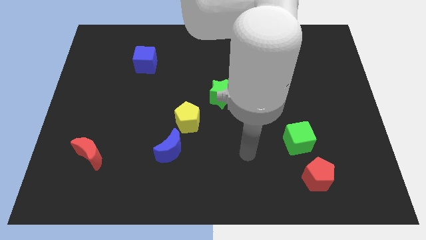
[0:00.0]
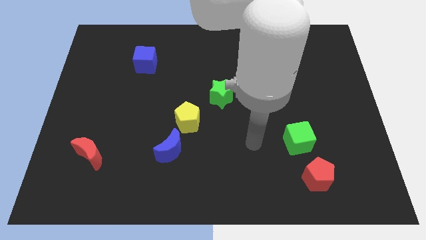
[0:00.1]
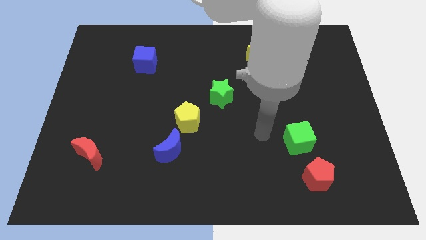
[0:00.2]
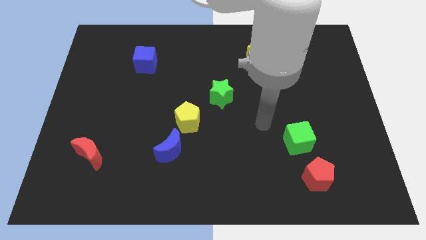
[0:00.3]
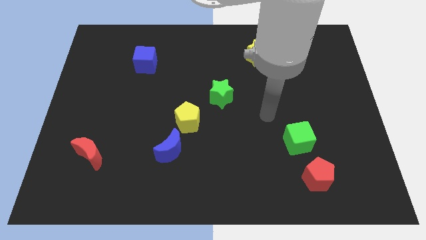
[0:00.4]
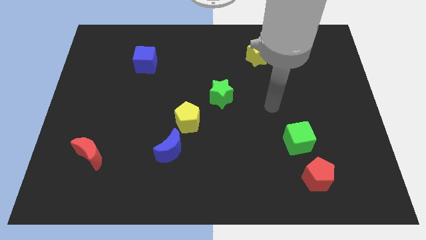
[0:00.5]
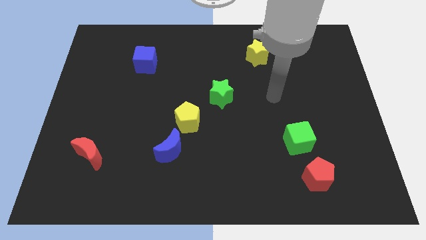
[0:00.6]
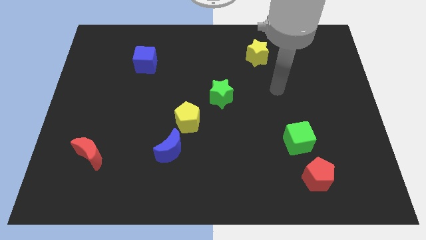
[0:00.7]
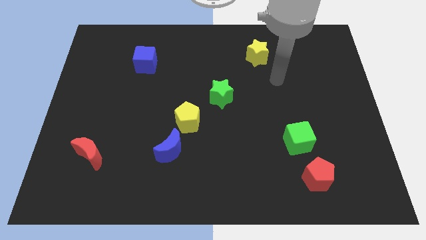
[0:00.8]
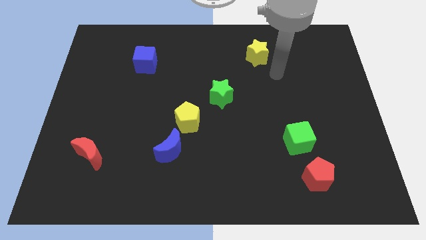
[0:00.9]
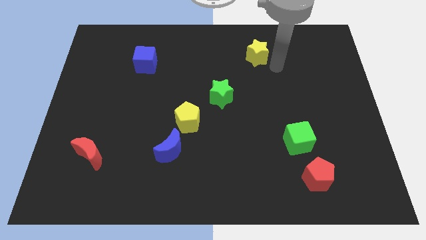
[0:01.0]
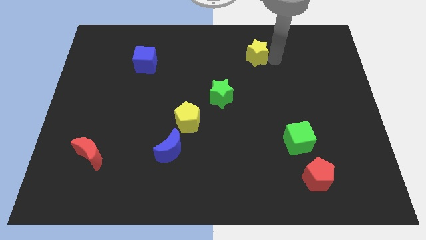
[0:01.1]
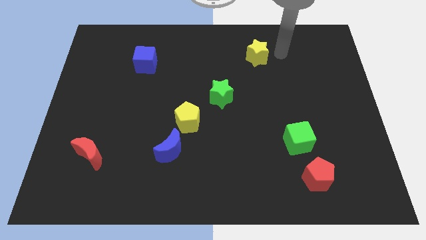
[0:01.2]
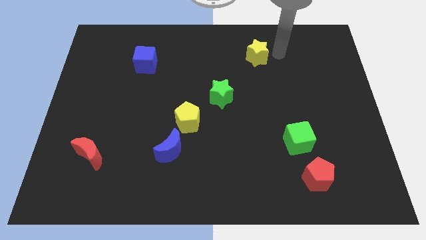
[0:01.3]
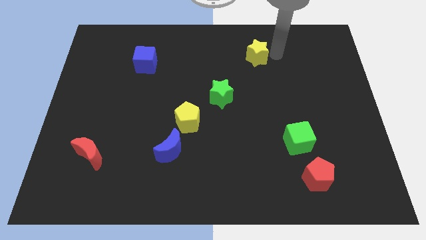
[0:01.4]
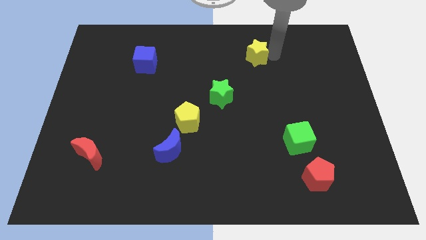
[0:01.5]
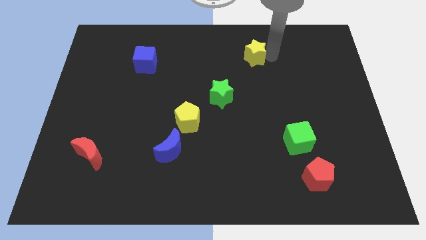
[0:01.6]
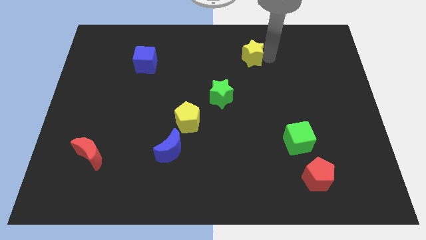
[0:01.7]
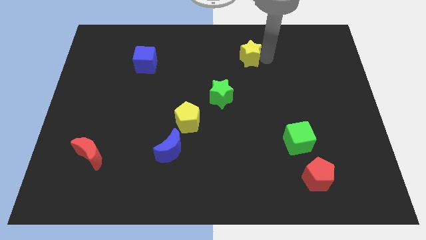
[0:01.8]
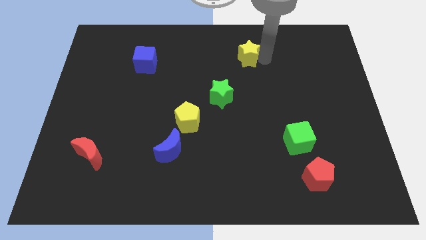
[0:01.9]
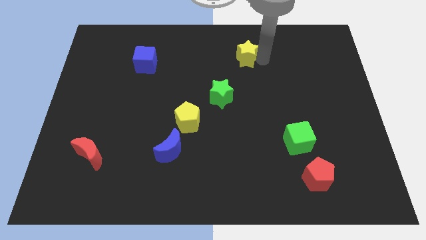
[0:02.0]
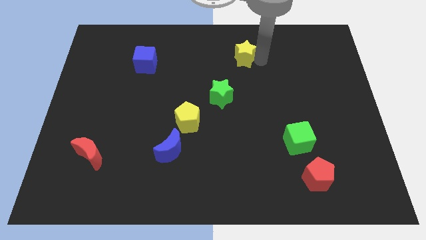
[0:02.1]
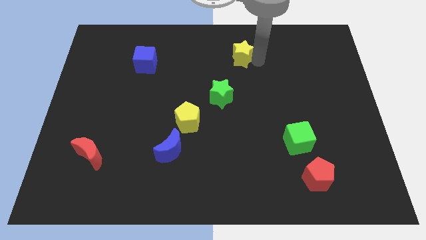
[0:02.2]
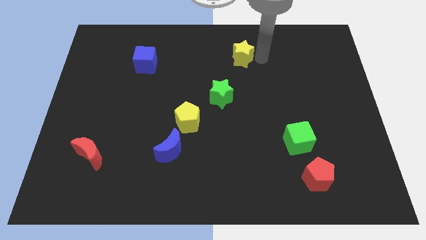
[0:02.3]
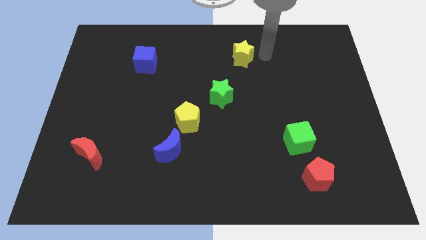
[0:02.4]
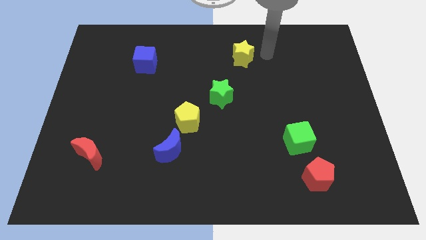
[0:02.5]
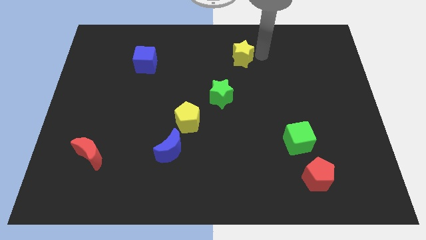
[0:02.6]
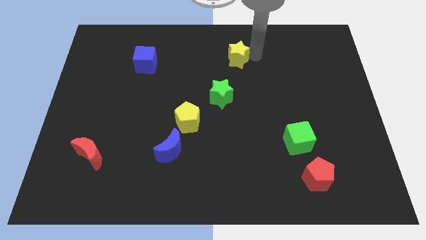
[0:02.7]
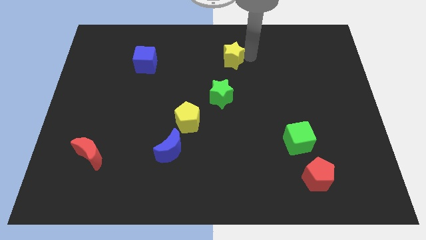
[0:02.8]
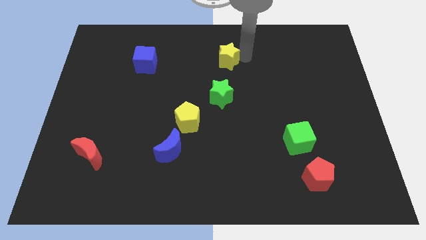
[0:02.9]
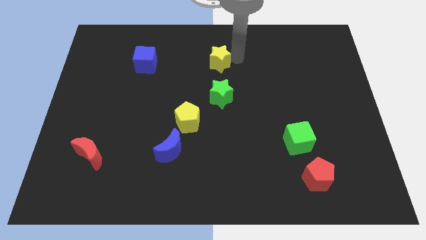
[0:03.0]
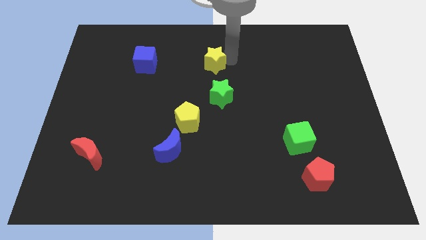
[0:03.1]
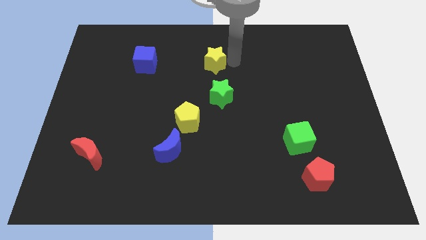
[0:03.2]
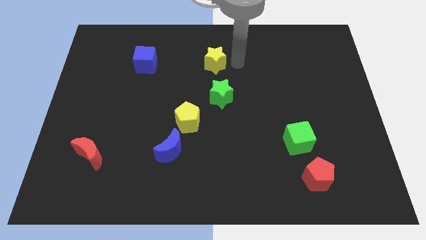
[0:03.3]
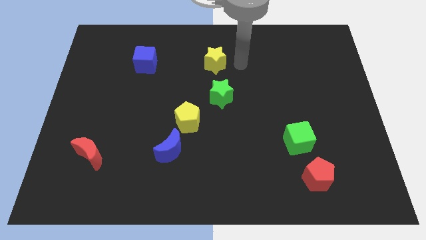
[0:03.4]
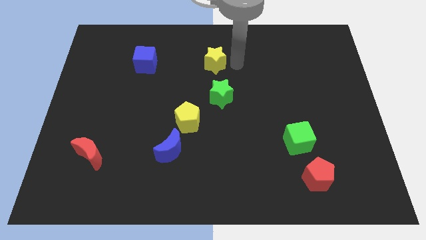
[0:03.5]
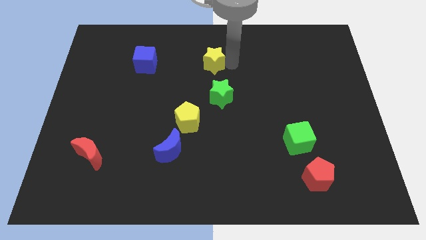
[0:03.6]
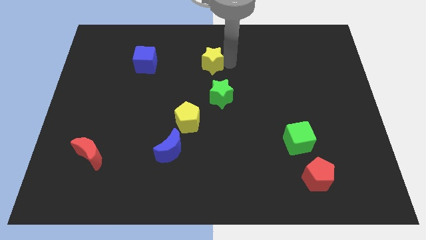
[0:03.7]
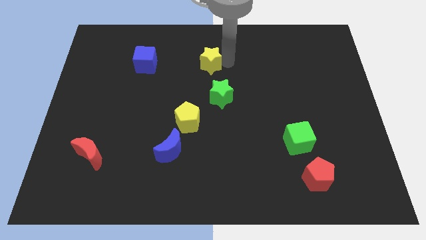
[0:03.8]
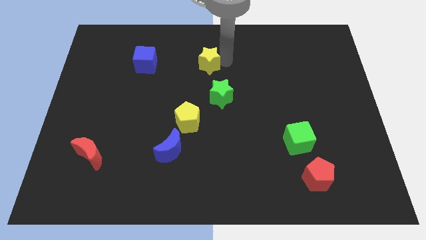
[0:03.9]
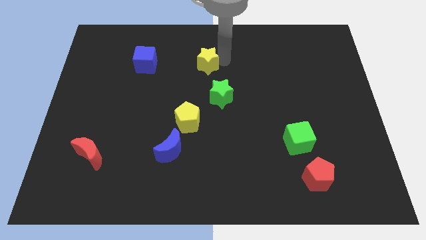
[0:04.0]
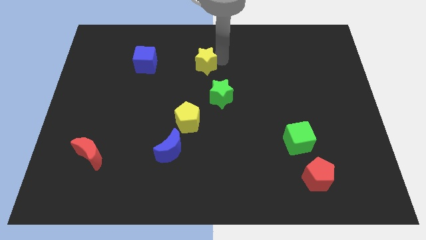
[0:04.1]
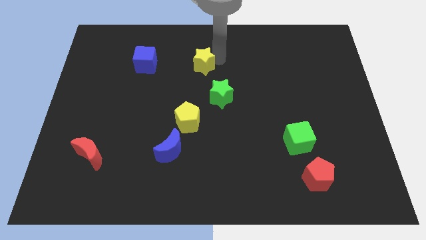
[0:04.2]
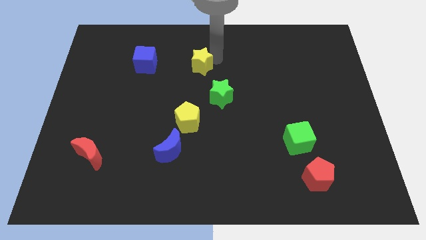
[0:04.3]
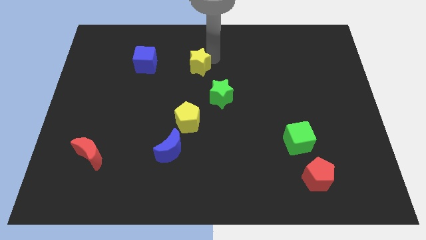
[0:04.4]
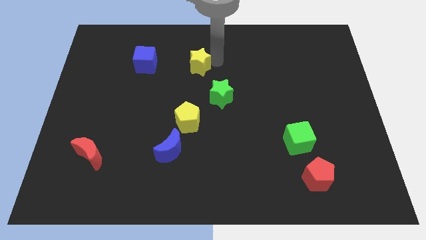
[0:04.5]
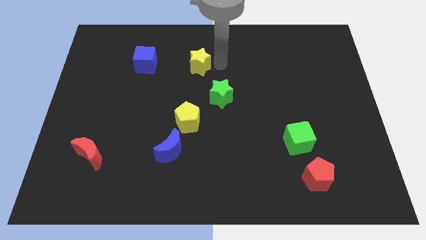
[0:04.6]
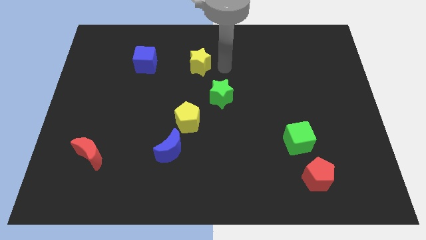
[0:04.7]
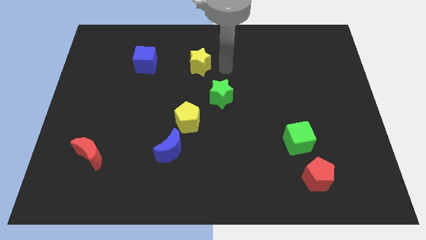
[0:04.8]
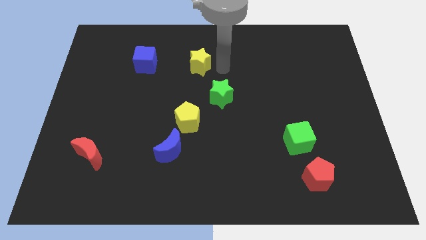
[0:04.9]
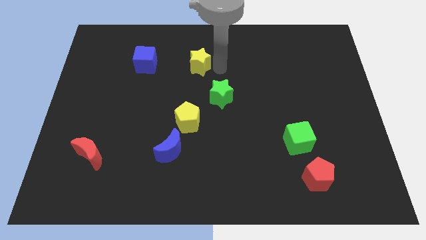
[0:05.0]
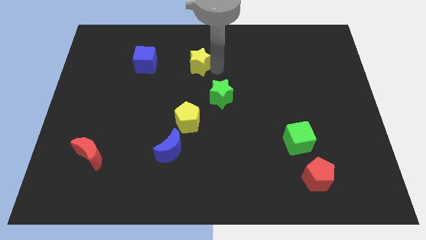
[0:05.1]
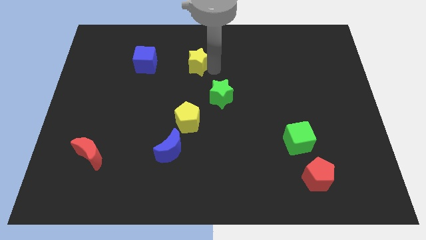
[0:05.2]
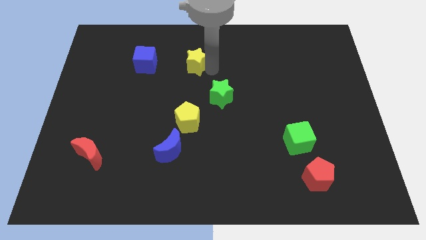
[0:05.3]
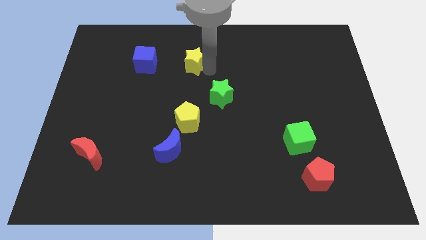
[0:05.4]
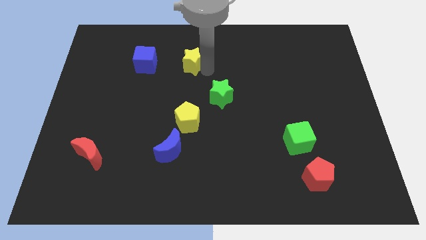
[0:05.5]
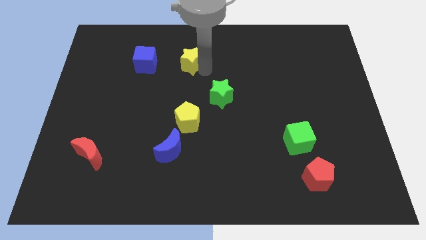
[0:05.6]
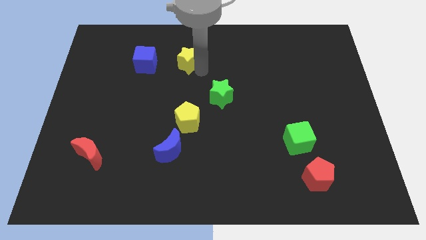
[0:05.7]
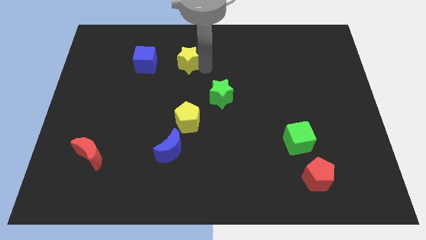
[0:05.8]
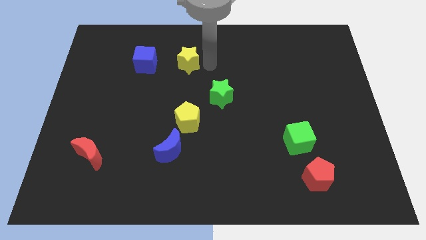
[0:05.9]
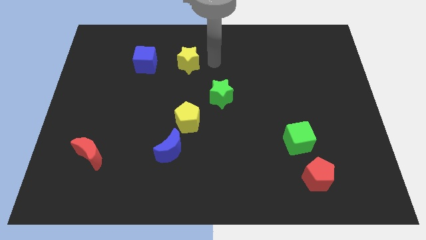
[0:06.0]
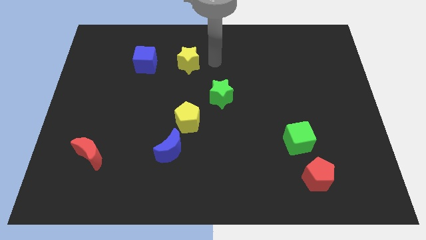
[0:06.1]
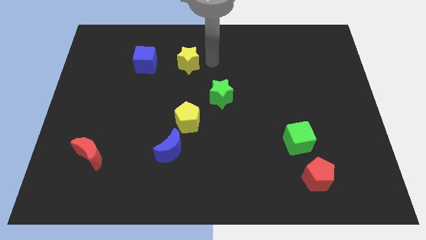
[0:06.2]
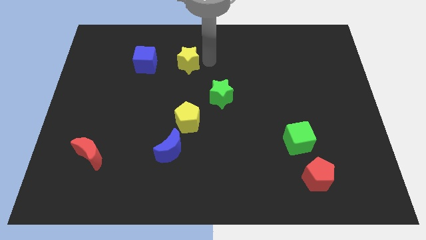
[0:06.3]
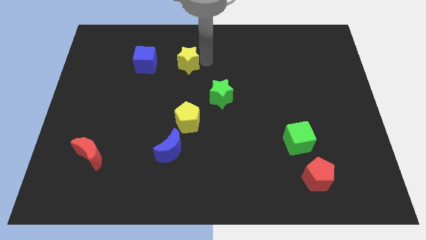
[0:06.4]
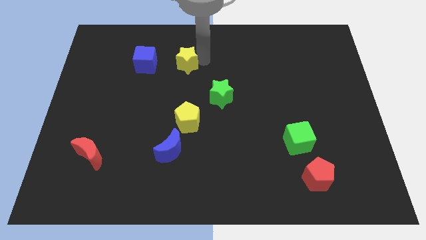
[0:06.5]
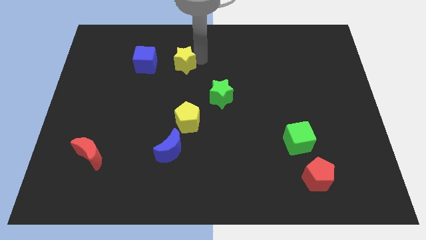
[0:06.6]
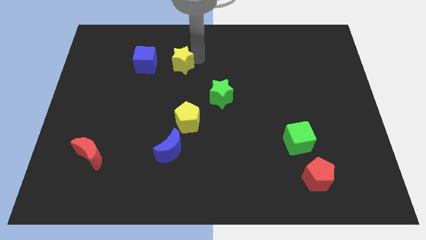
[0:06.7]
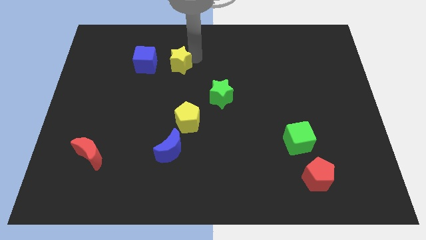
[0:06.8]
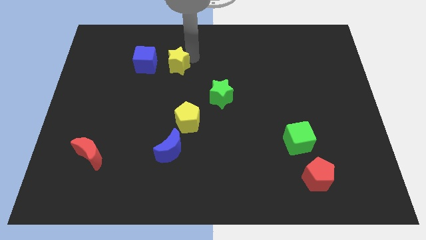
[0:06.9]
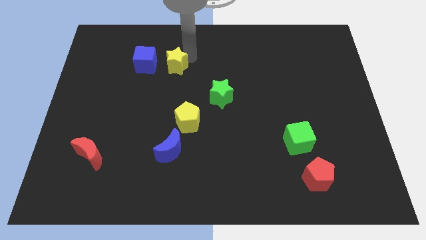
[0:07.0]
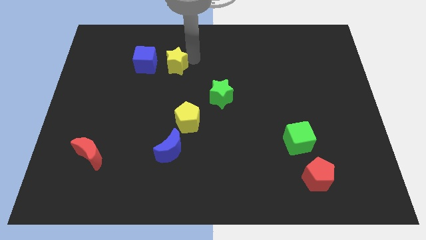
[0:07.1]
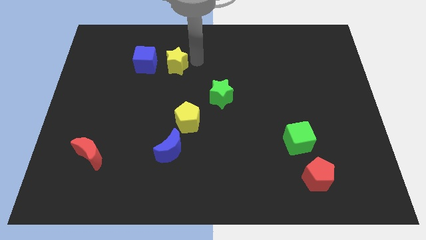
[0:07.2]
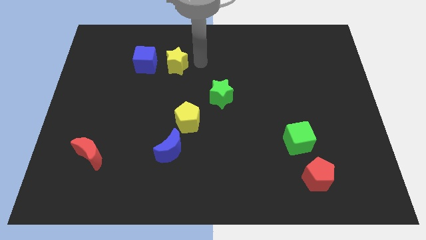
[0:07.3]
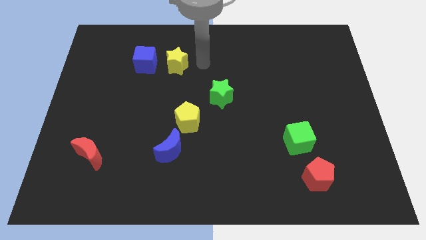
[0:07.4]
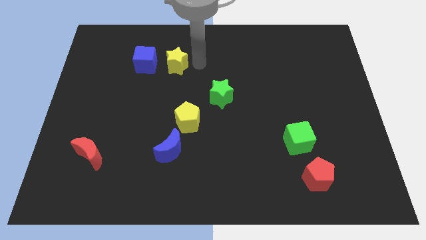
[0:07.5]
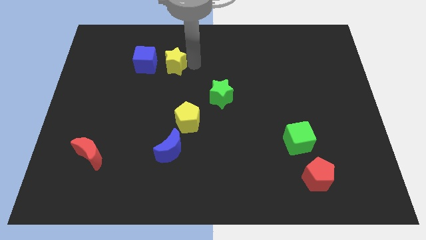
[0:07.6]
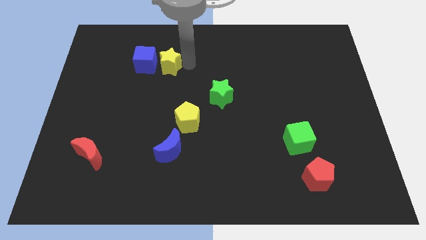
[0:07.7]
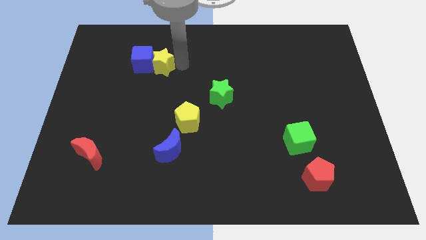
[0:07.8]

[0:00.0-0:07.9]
slide the yellow star next to the blue cube
